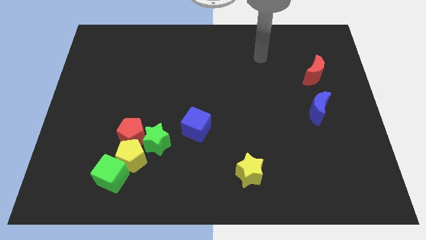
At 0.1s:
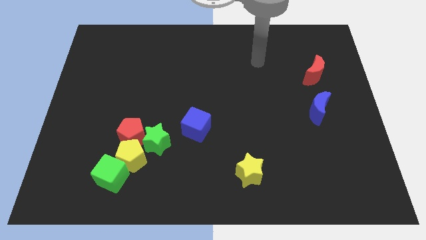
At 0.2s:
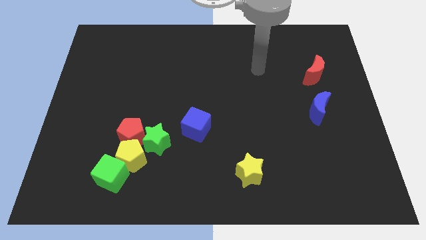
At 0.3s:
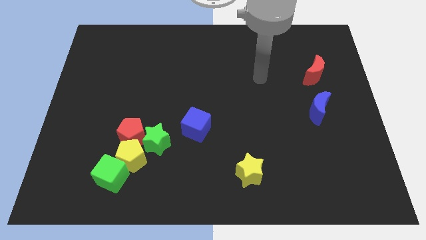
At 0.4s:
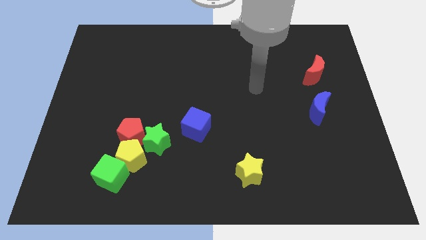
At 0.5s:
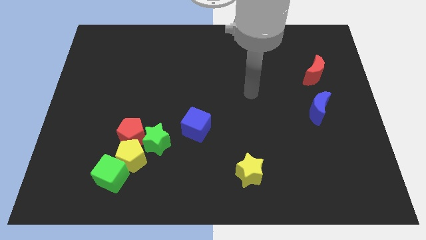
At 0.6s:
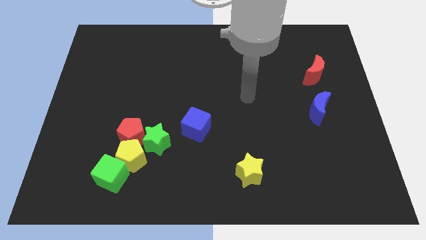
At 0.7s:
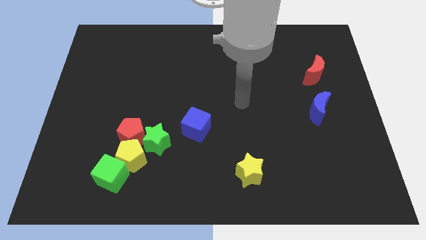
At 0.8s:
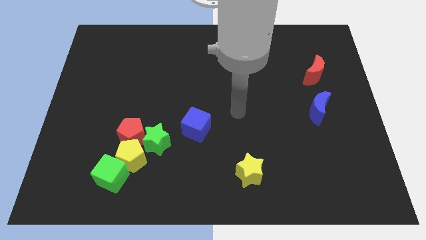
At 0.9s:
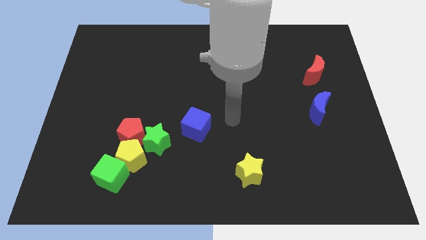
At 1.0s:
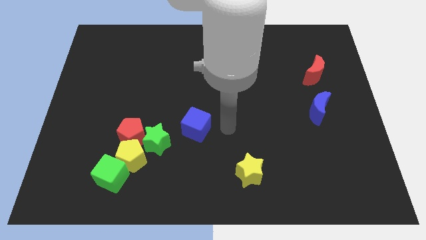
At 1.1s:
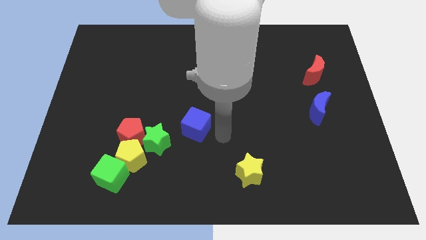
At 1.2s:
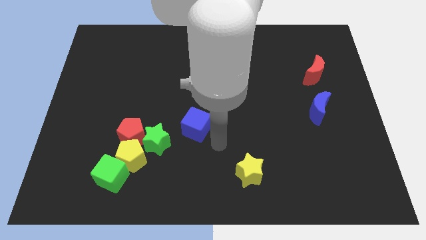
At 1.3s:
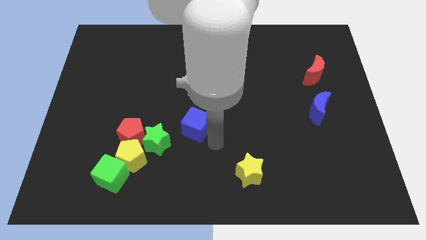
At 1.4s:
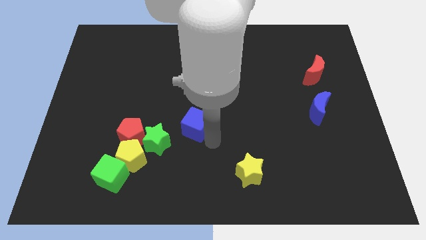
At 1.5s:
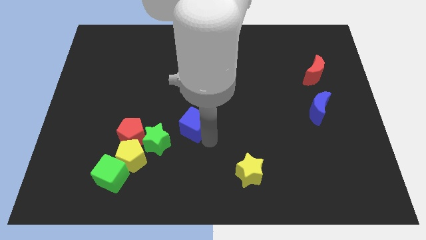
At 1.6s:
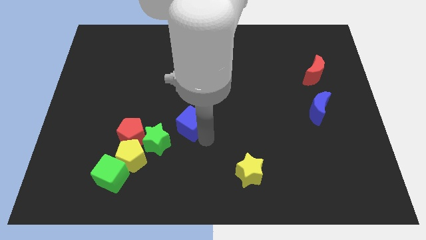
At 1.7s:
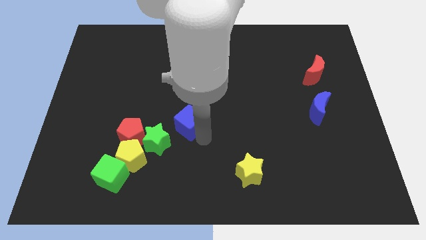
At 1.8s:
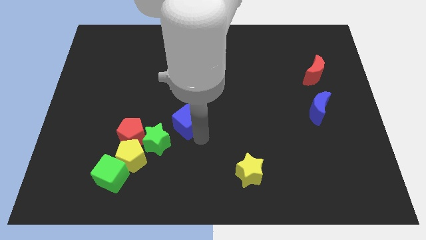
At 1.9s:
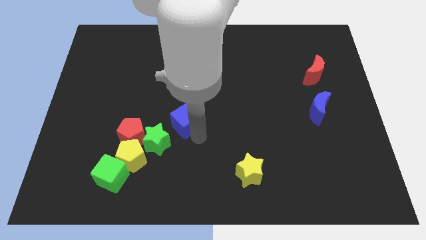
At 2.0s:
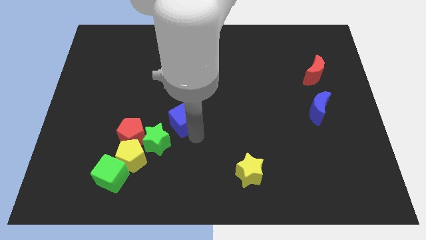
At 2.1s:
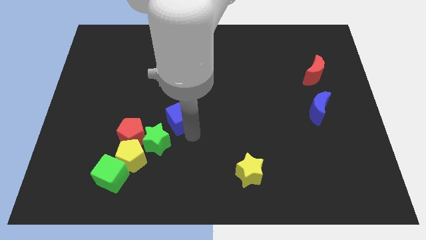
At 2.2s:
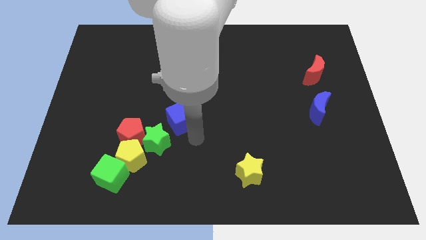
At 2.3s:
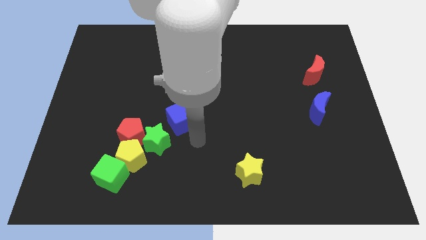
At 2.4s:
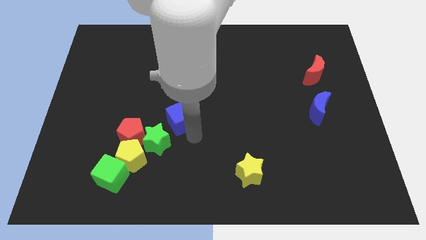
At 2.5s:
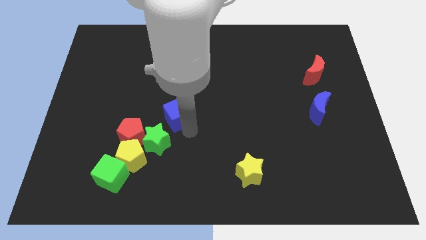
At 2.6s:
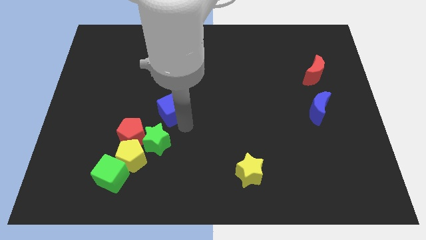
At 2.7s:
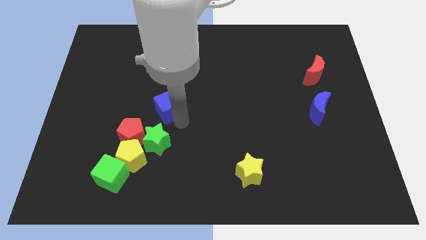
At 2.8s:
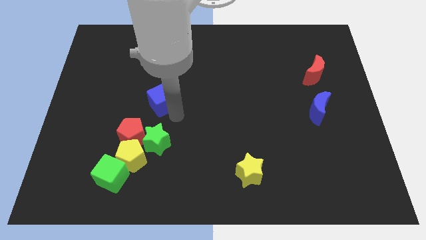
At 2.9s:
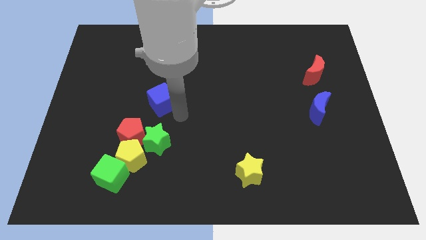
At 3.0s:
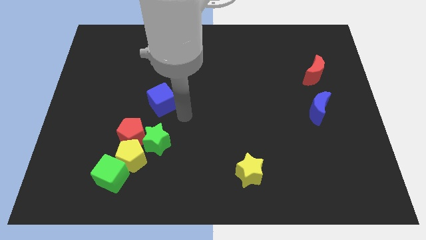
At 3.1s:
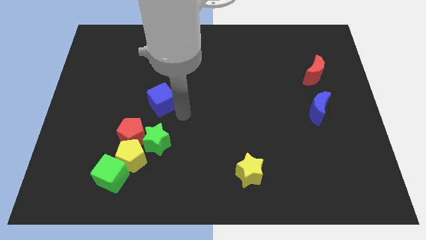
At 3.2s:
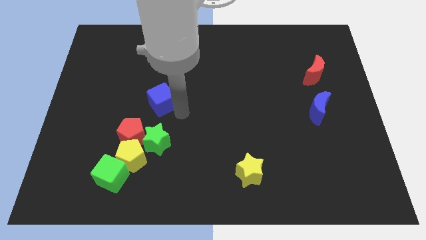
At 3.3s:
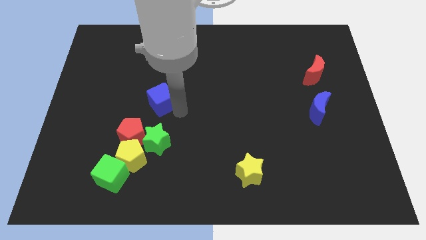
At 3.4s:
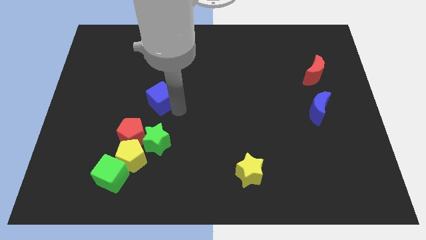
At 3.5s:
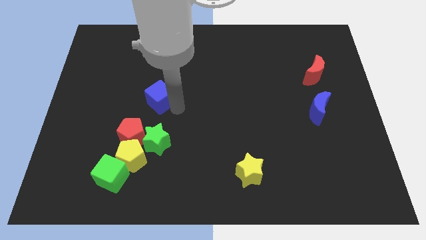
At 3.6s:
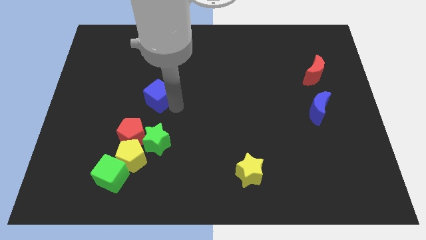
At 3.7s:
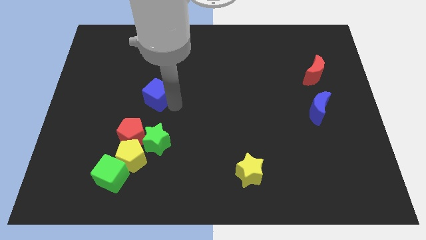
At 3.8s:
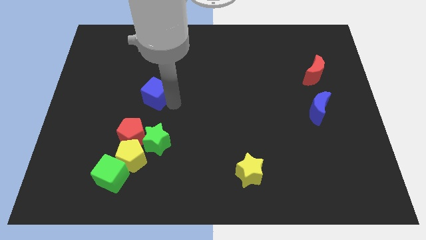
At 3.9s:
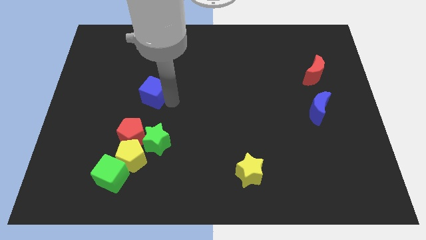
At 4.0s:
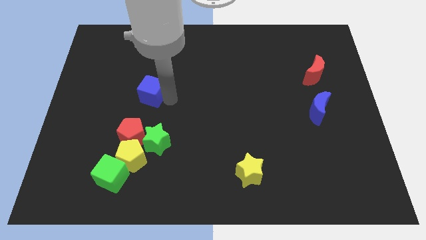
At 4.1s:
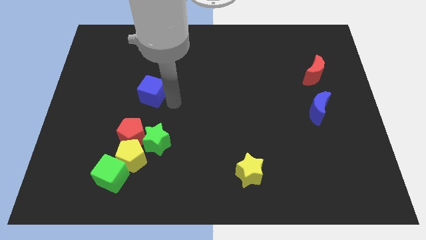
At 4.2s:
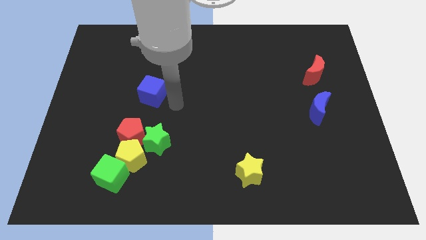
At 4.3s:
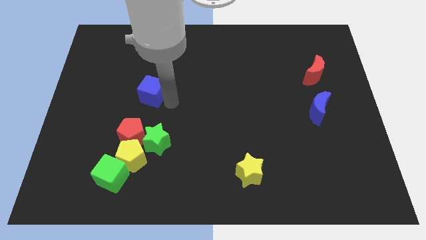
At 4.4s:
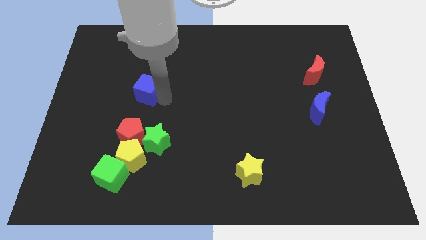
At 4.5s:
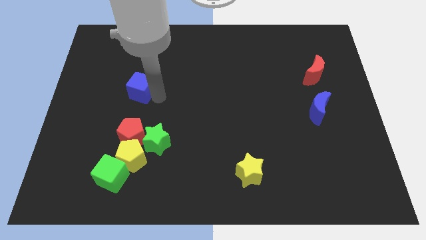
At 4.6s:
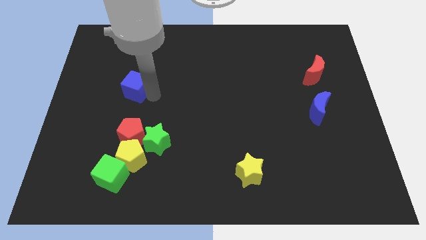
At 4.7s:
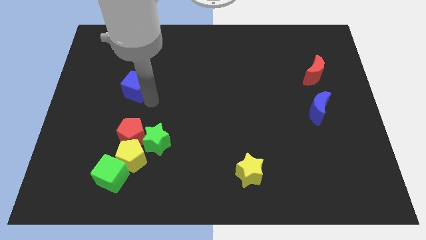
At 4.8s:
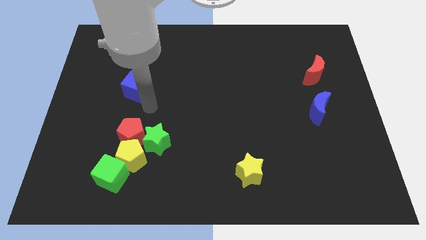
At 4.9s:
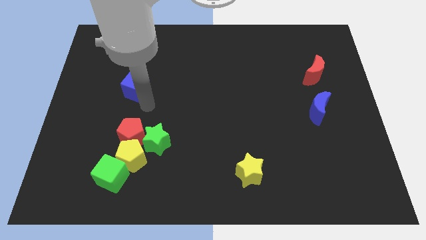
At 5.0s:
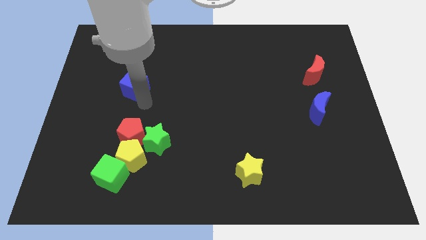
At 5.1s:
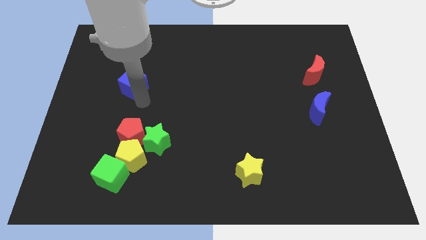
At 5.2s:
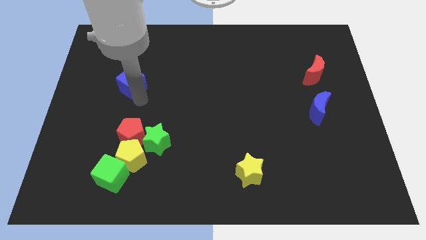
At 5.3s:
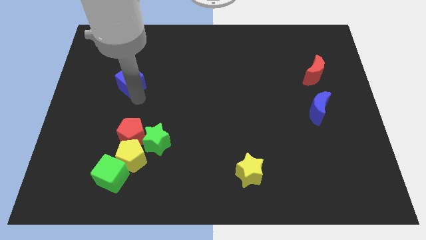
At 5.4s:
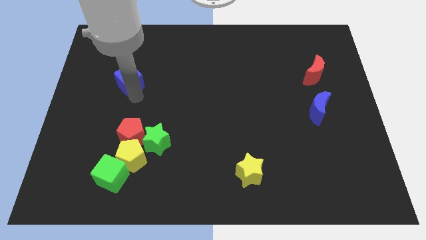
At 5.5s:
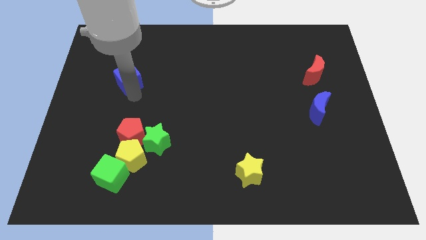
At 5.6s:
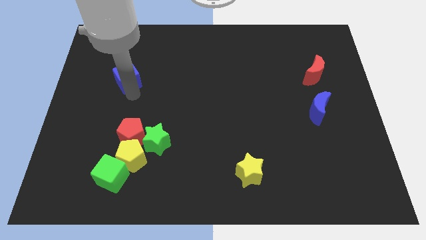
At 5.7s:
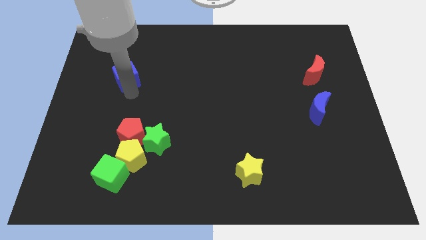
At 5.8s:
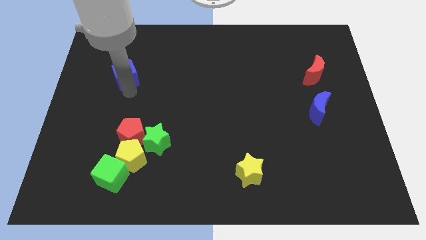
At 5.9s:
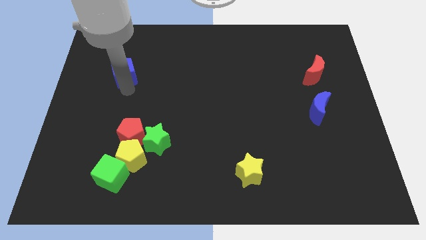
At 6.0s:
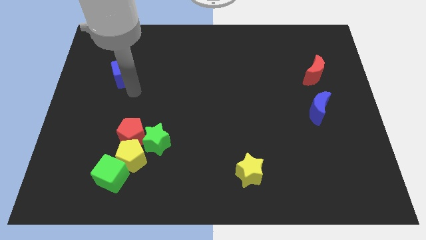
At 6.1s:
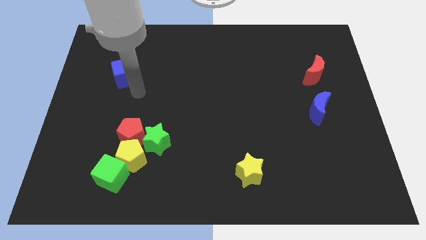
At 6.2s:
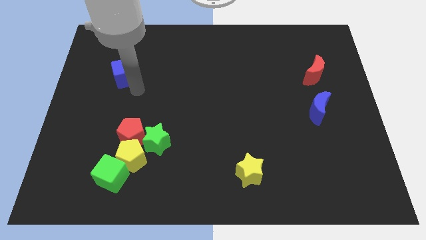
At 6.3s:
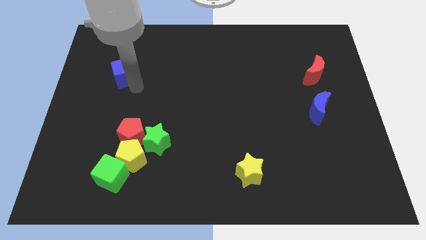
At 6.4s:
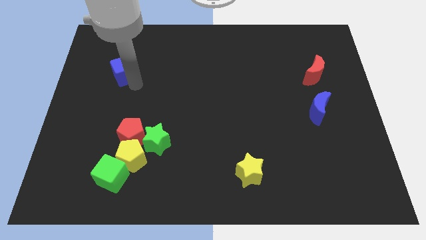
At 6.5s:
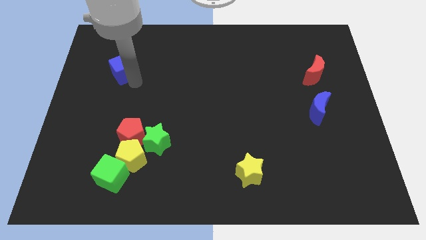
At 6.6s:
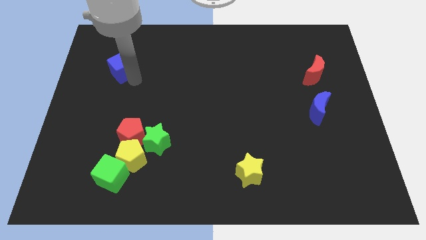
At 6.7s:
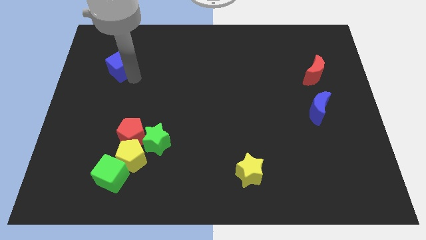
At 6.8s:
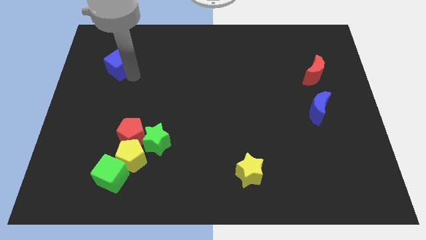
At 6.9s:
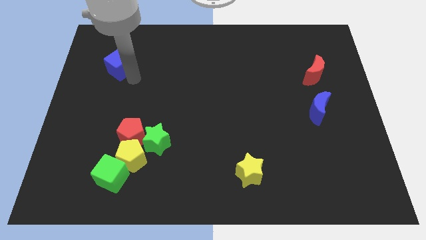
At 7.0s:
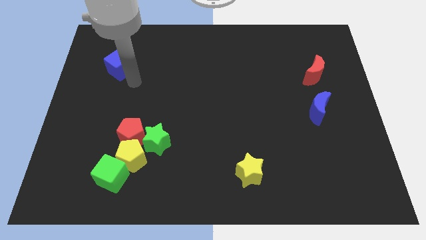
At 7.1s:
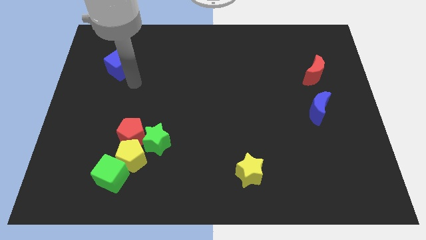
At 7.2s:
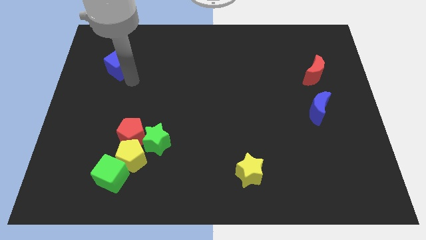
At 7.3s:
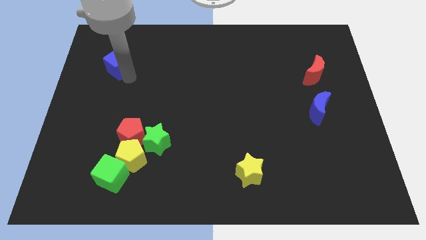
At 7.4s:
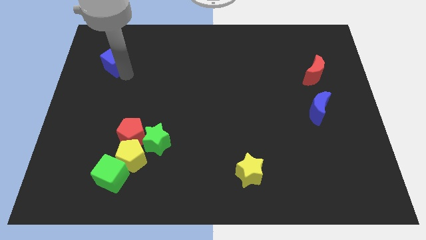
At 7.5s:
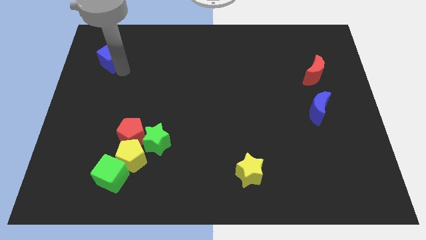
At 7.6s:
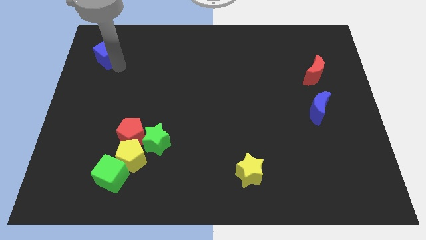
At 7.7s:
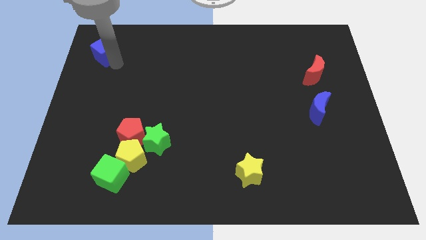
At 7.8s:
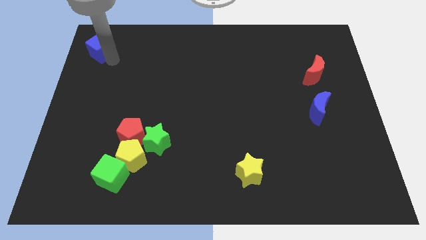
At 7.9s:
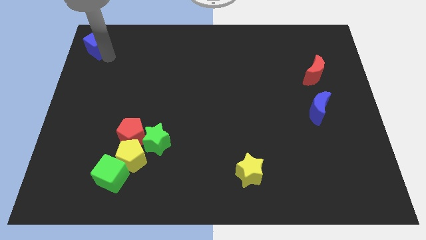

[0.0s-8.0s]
put the blue cube to the top left

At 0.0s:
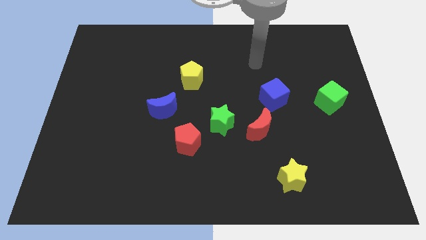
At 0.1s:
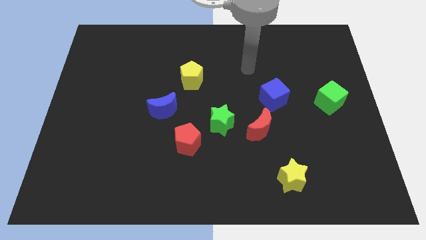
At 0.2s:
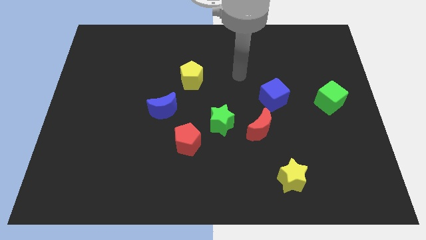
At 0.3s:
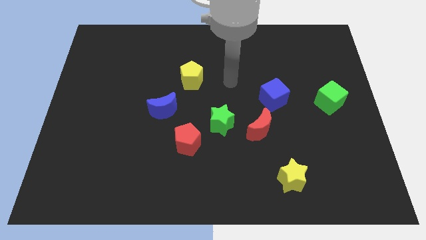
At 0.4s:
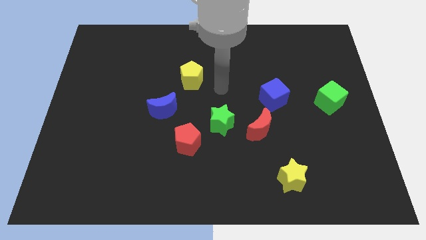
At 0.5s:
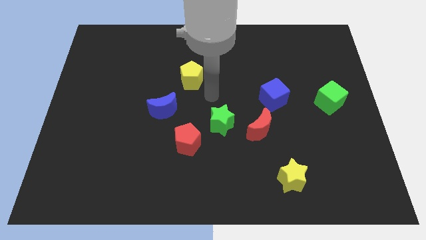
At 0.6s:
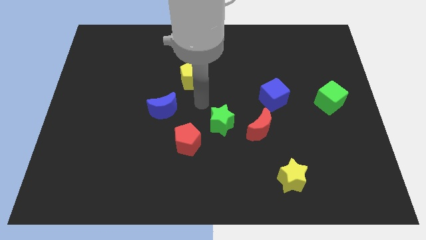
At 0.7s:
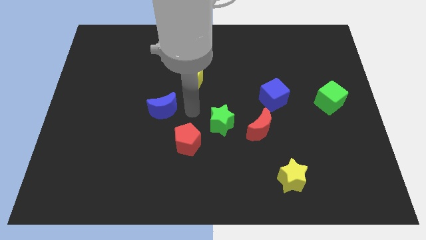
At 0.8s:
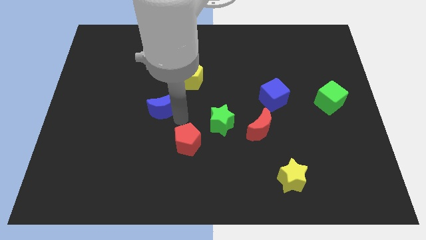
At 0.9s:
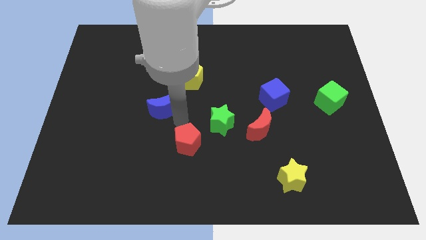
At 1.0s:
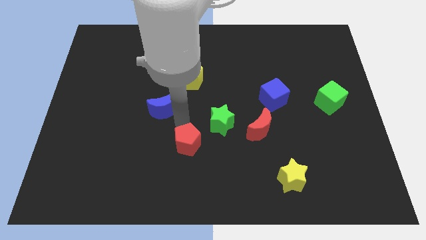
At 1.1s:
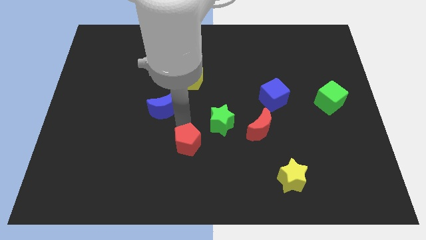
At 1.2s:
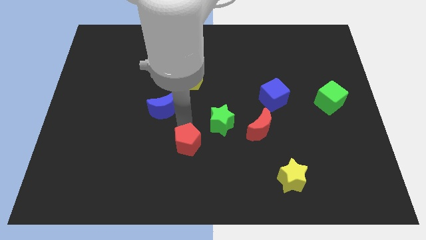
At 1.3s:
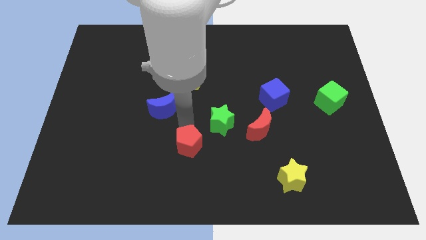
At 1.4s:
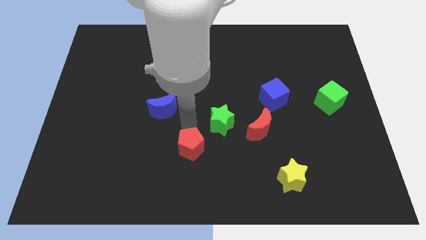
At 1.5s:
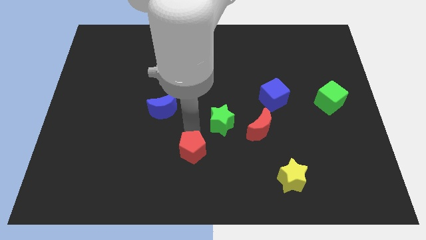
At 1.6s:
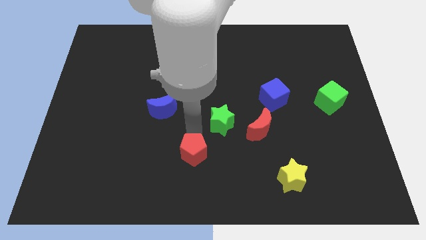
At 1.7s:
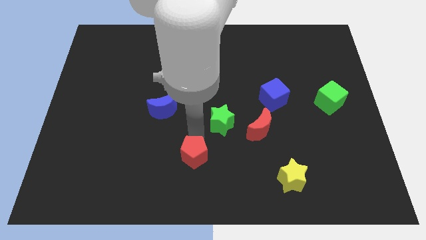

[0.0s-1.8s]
put the red pentagon to the bottom side
